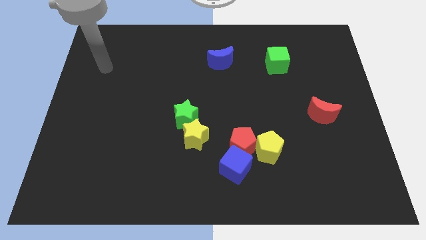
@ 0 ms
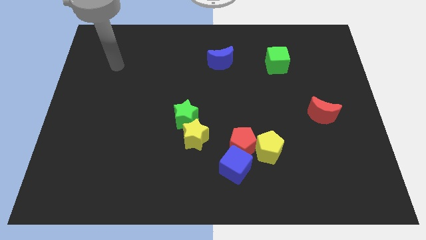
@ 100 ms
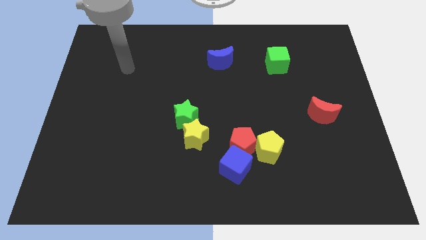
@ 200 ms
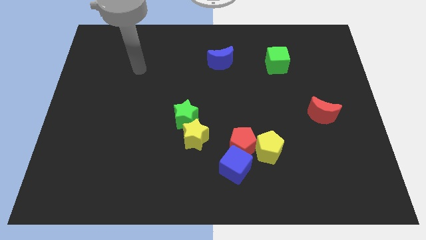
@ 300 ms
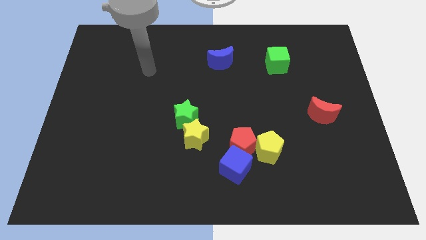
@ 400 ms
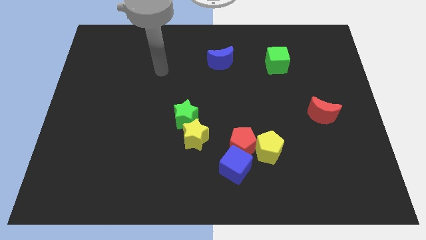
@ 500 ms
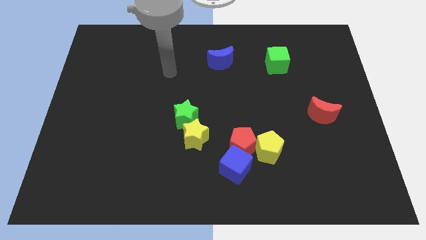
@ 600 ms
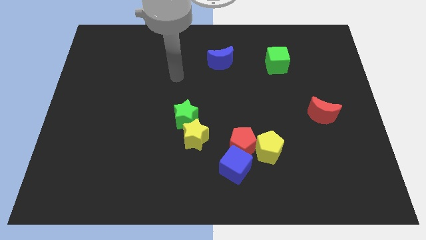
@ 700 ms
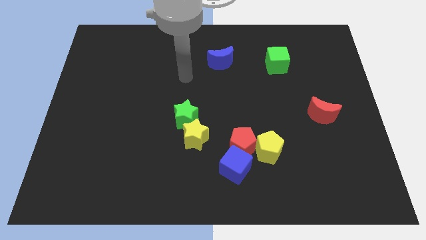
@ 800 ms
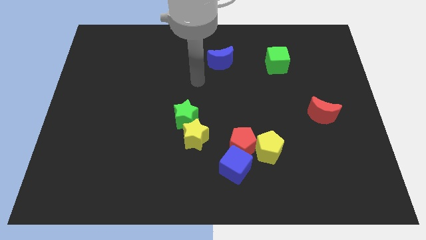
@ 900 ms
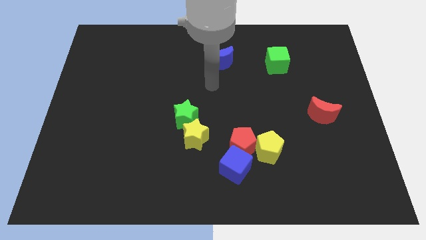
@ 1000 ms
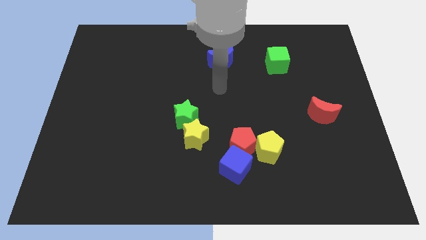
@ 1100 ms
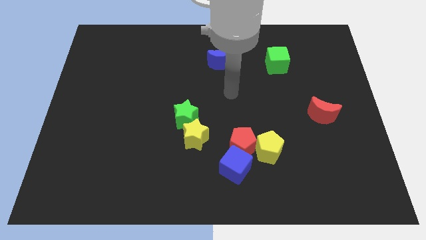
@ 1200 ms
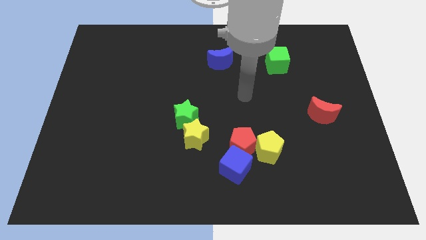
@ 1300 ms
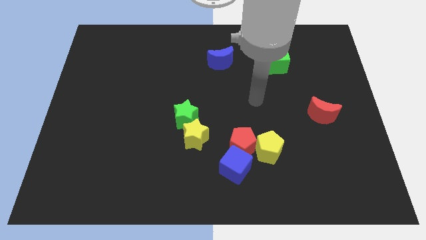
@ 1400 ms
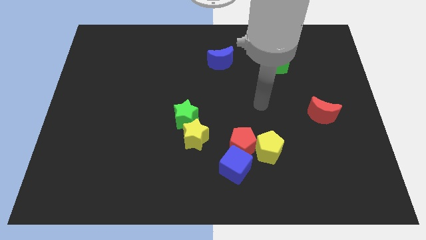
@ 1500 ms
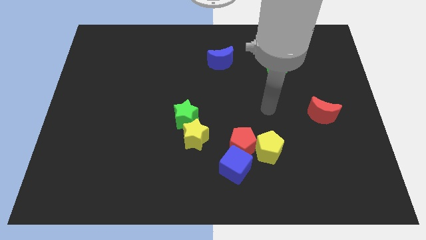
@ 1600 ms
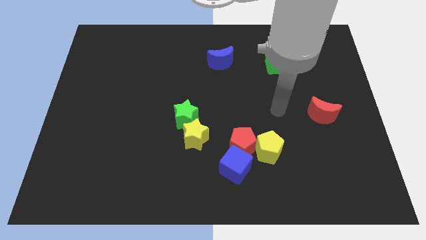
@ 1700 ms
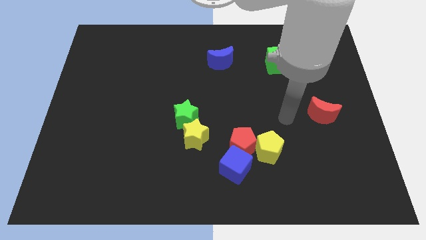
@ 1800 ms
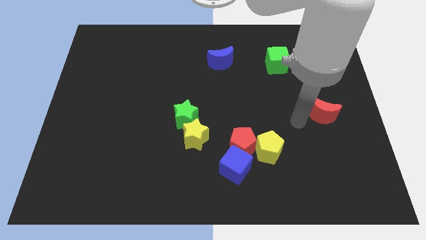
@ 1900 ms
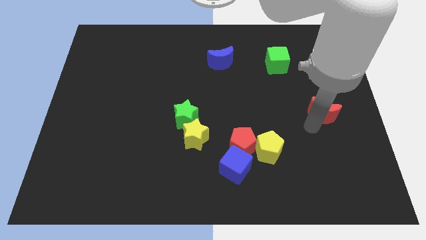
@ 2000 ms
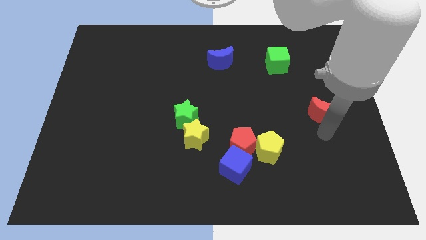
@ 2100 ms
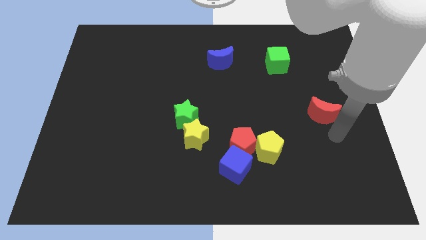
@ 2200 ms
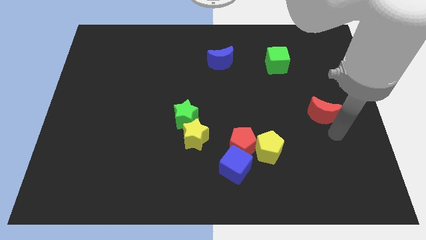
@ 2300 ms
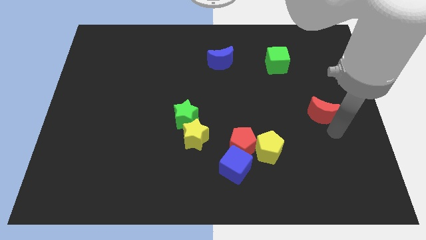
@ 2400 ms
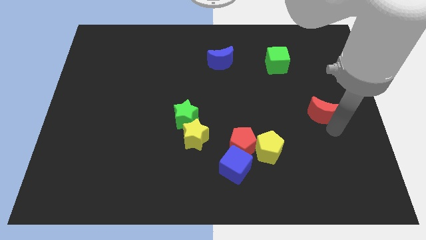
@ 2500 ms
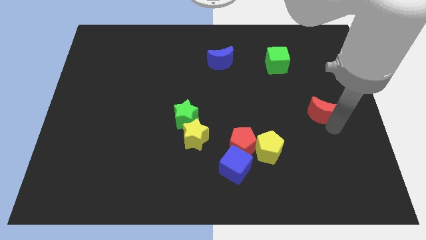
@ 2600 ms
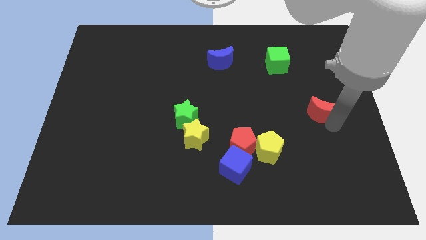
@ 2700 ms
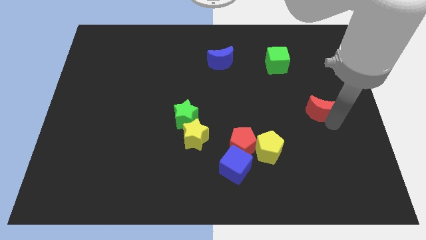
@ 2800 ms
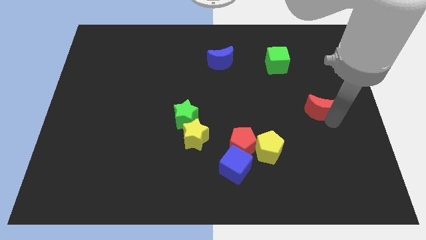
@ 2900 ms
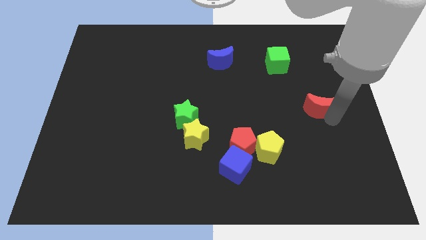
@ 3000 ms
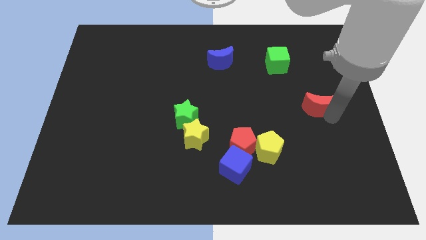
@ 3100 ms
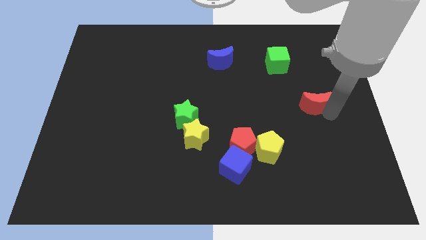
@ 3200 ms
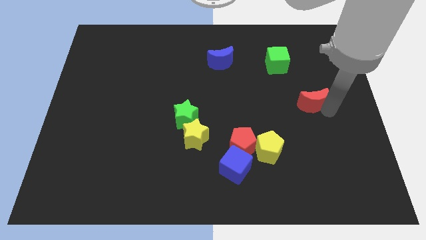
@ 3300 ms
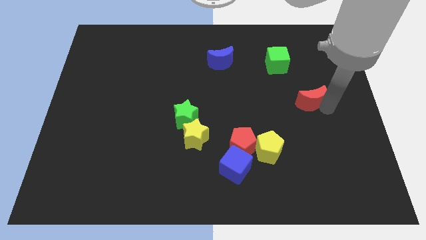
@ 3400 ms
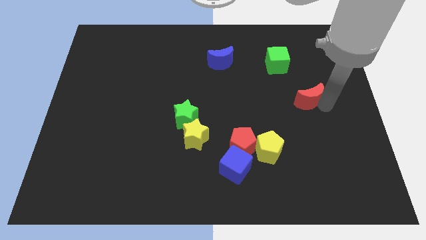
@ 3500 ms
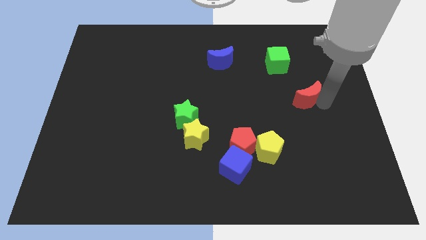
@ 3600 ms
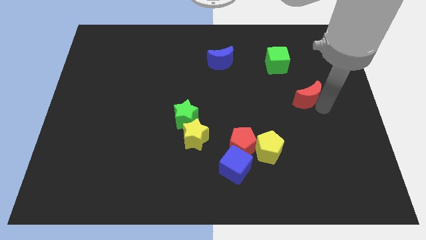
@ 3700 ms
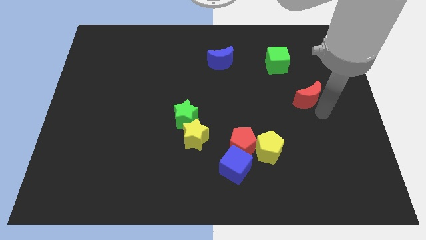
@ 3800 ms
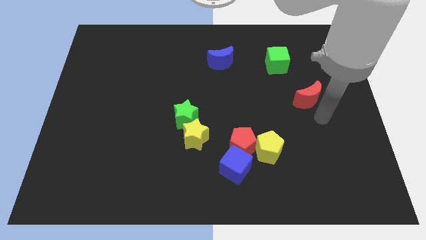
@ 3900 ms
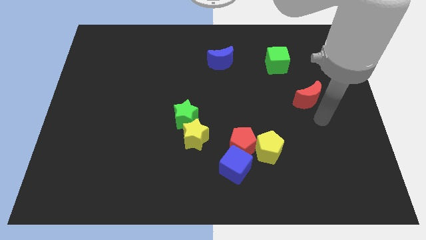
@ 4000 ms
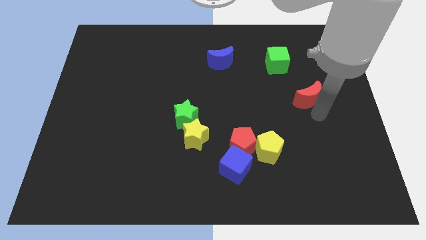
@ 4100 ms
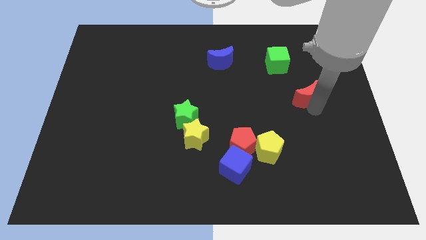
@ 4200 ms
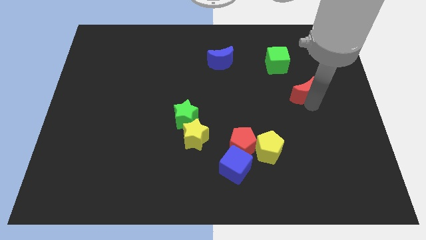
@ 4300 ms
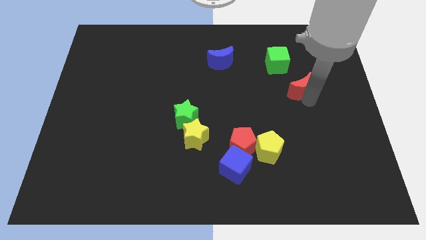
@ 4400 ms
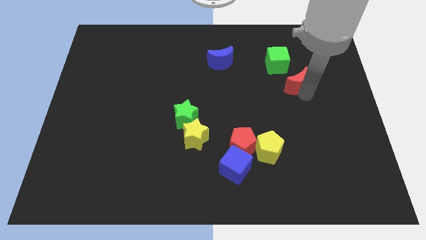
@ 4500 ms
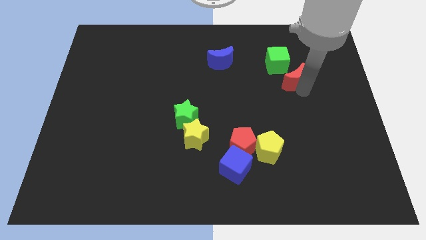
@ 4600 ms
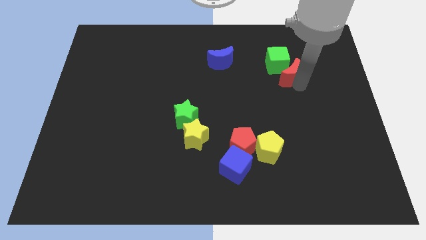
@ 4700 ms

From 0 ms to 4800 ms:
put the red moon next to the green cube

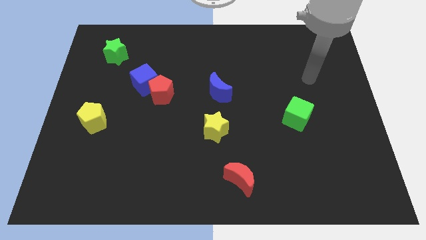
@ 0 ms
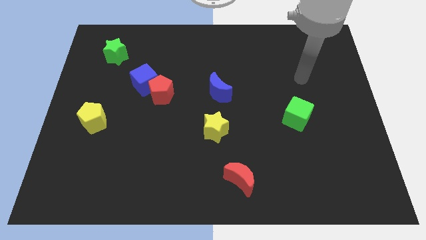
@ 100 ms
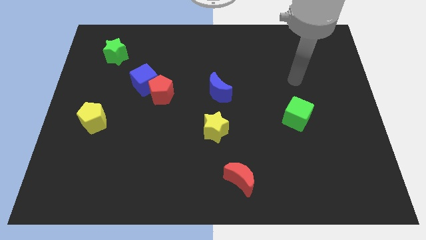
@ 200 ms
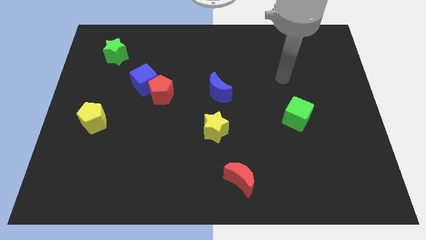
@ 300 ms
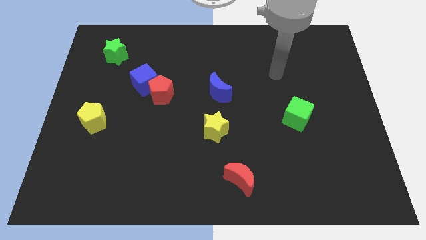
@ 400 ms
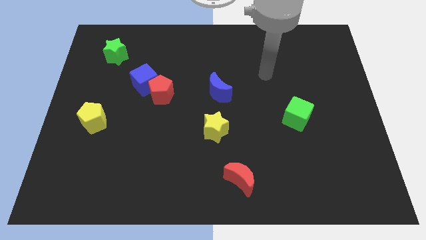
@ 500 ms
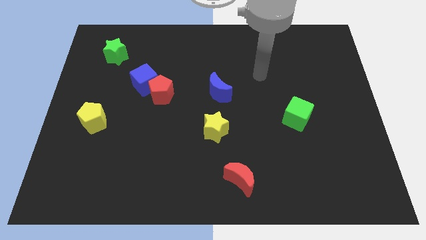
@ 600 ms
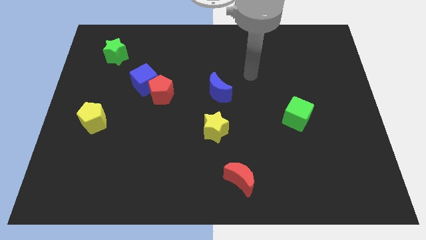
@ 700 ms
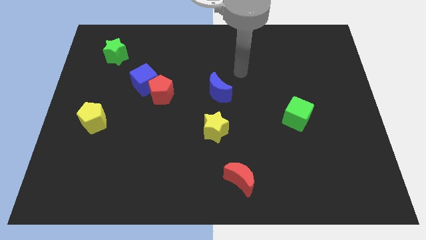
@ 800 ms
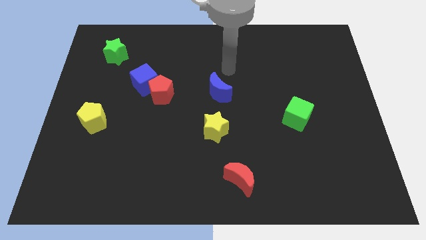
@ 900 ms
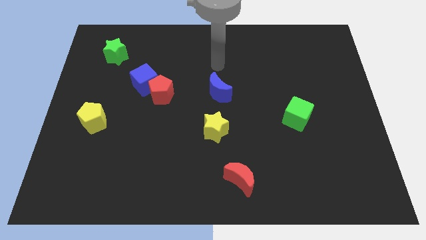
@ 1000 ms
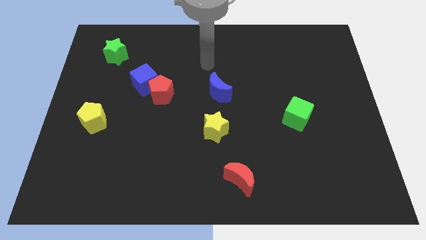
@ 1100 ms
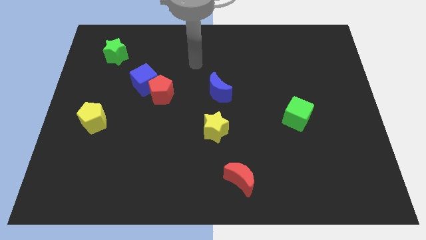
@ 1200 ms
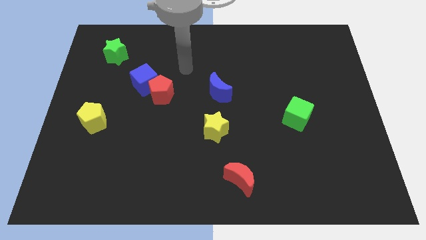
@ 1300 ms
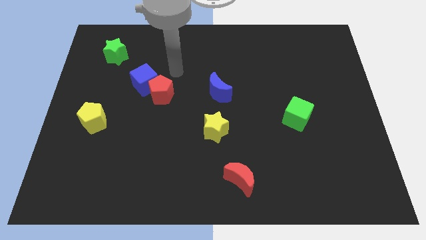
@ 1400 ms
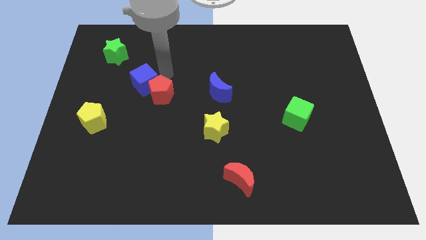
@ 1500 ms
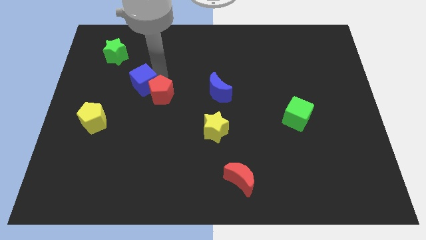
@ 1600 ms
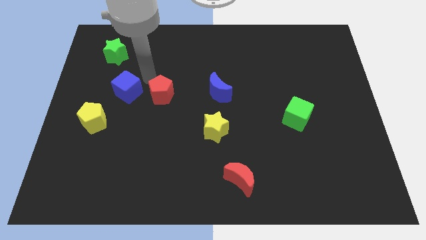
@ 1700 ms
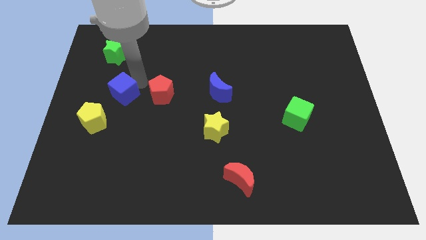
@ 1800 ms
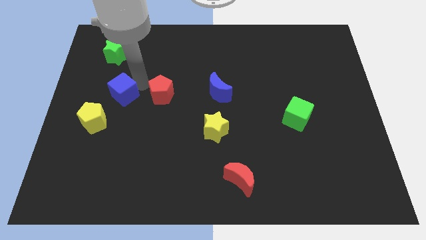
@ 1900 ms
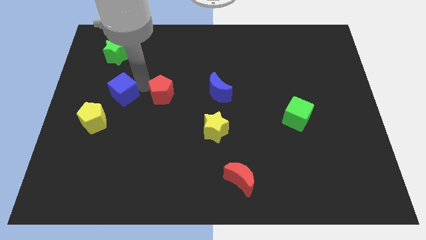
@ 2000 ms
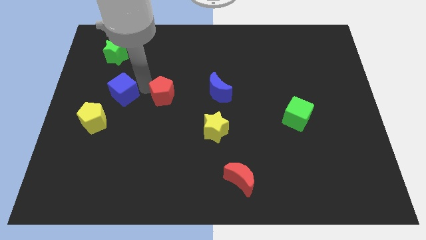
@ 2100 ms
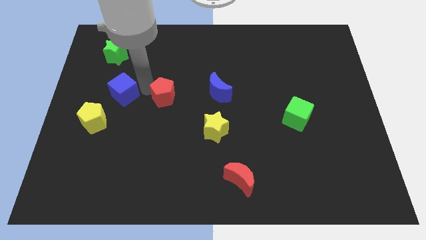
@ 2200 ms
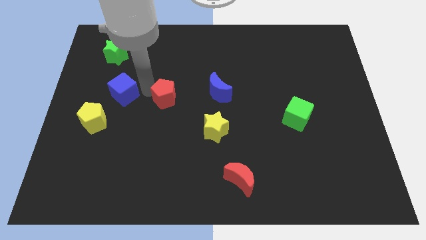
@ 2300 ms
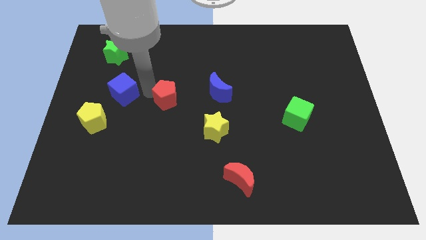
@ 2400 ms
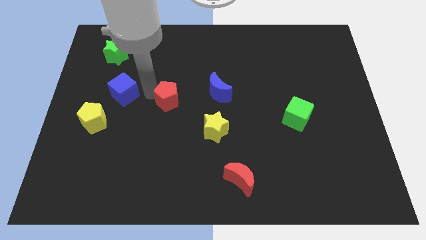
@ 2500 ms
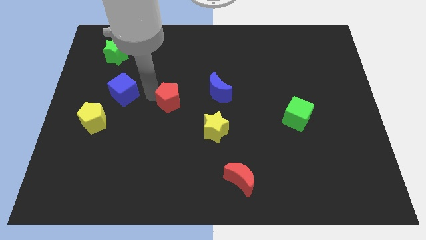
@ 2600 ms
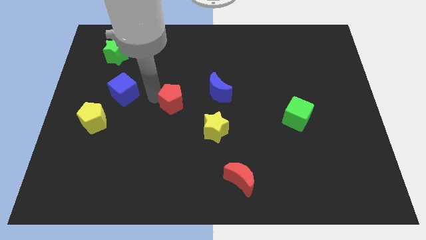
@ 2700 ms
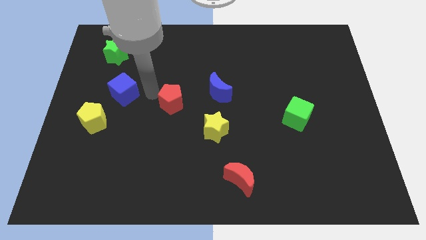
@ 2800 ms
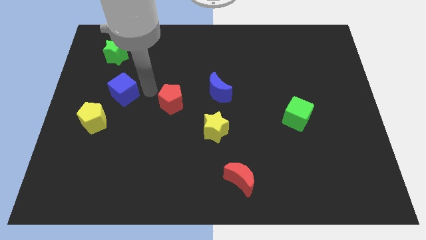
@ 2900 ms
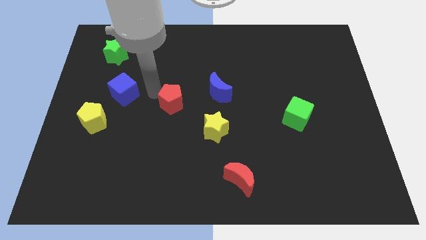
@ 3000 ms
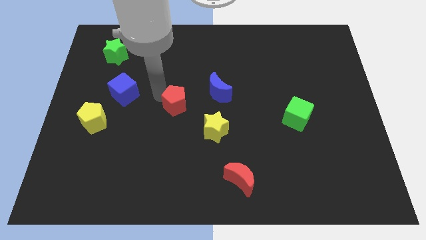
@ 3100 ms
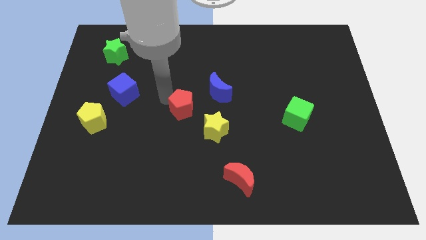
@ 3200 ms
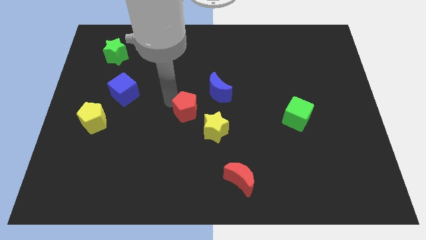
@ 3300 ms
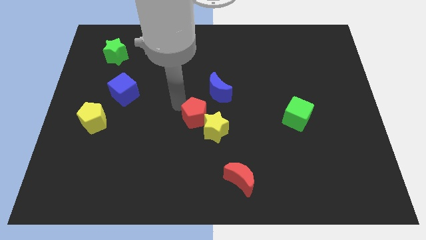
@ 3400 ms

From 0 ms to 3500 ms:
slide the red pentagon to the yellow star
